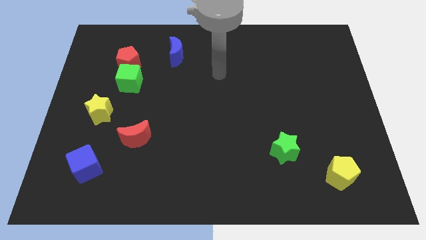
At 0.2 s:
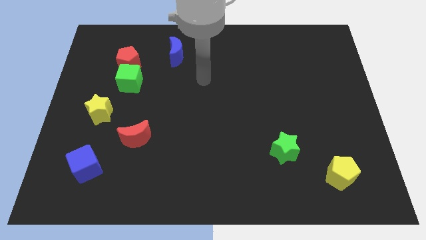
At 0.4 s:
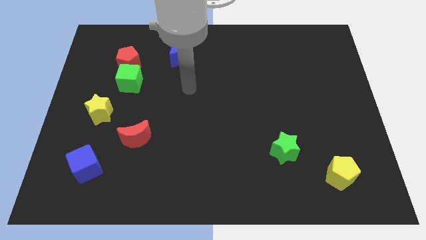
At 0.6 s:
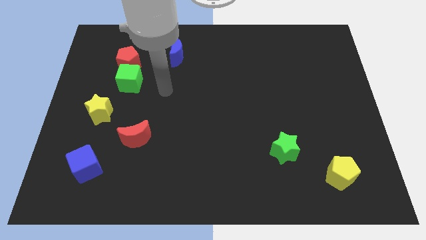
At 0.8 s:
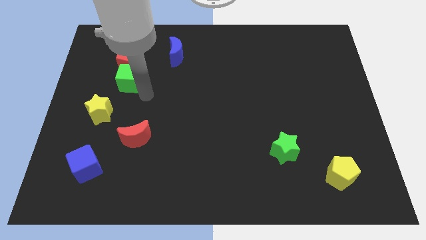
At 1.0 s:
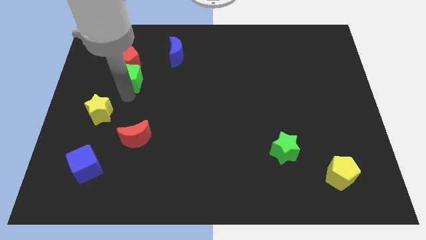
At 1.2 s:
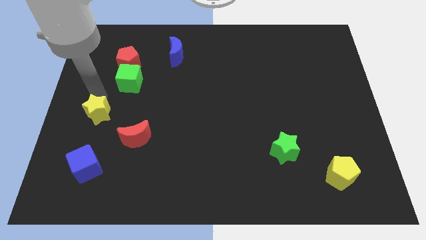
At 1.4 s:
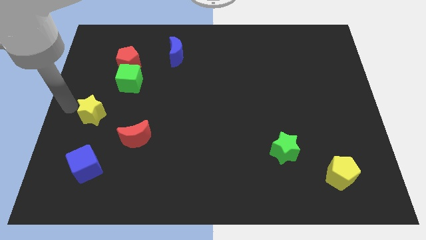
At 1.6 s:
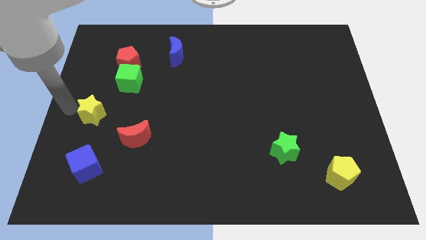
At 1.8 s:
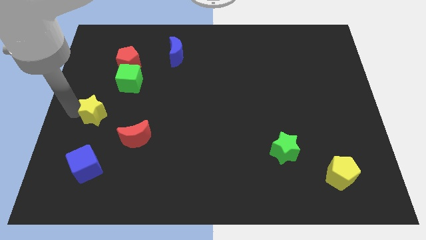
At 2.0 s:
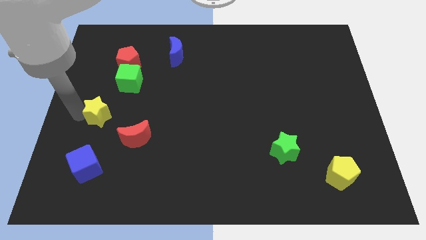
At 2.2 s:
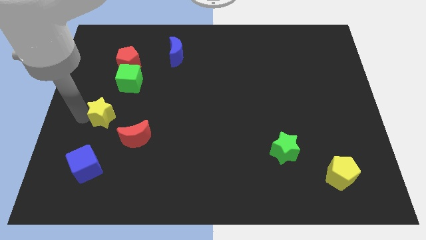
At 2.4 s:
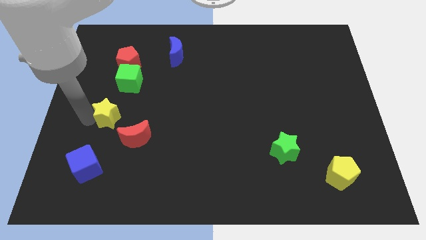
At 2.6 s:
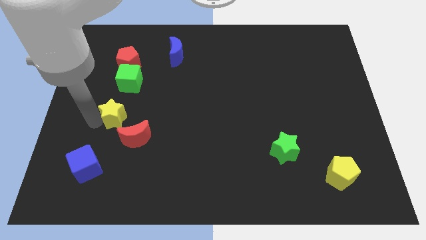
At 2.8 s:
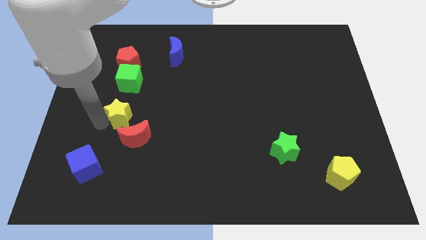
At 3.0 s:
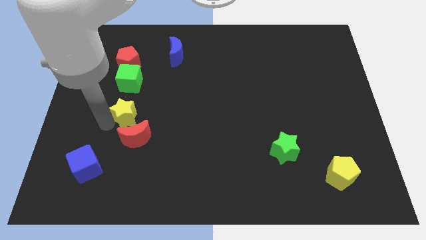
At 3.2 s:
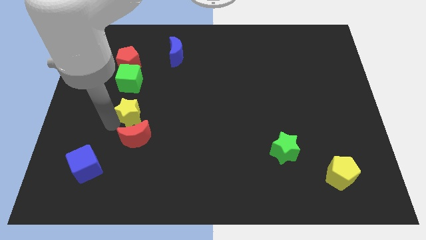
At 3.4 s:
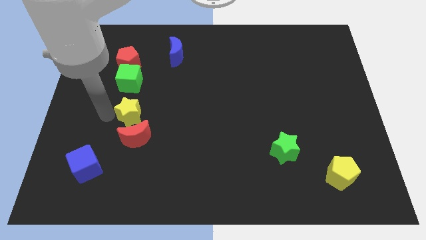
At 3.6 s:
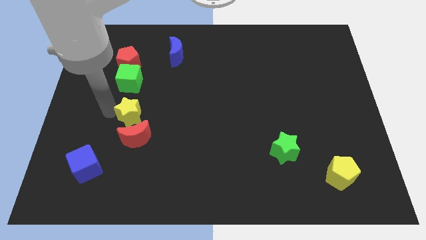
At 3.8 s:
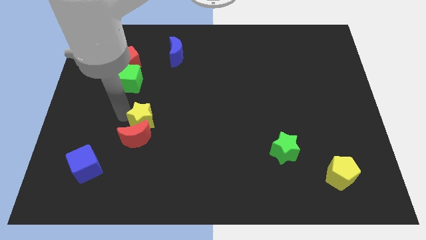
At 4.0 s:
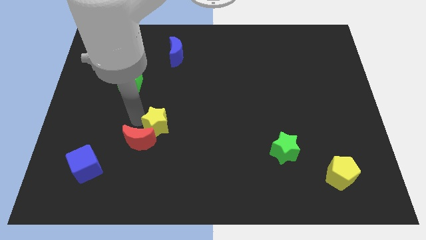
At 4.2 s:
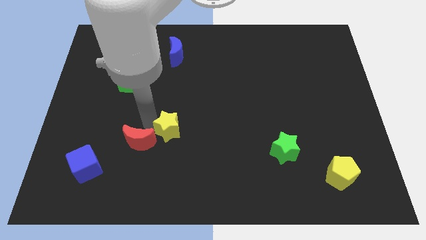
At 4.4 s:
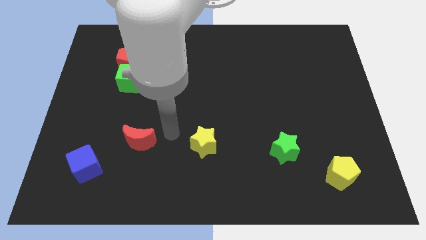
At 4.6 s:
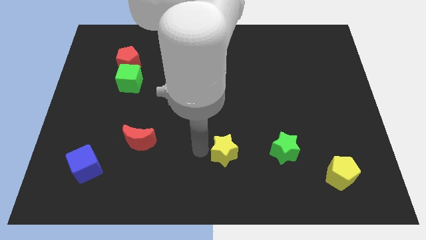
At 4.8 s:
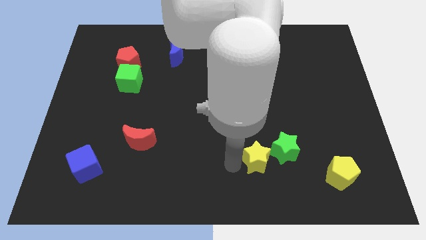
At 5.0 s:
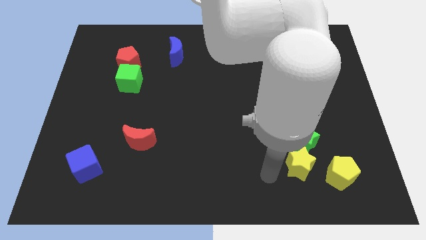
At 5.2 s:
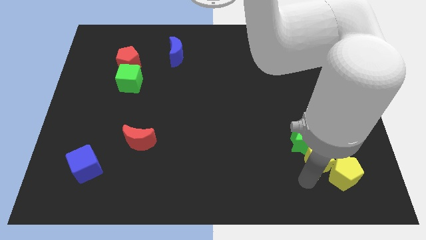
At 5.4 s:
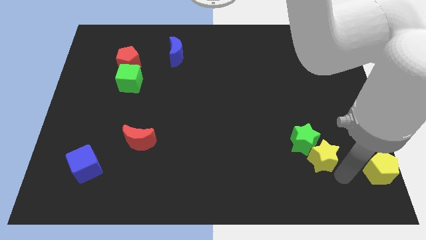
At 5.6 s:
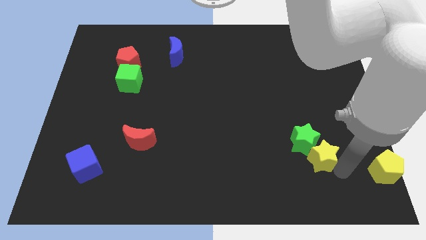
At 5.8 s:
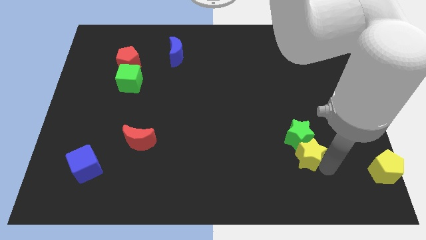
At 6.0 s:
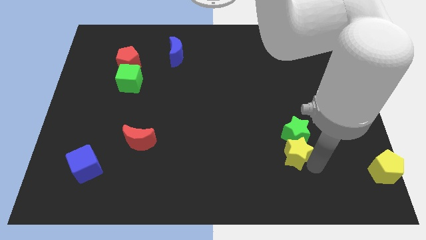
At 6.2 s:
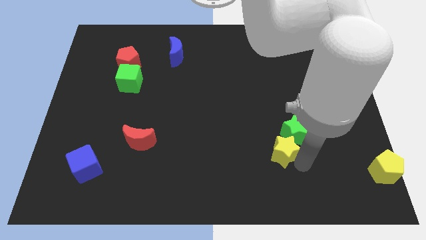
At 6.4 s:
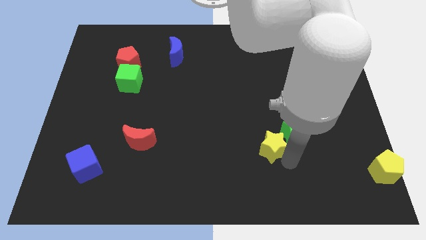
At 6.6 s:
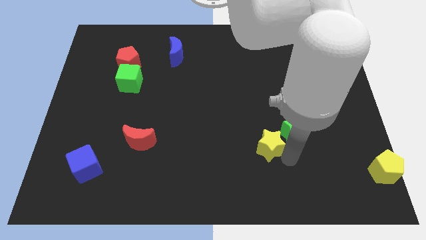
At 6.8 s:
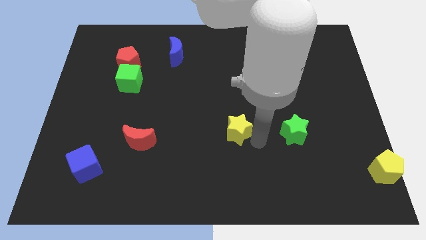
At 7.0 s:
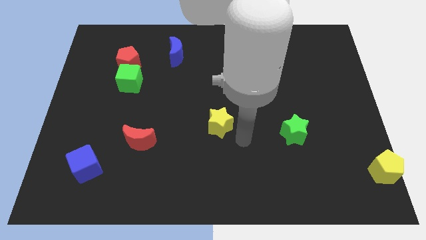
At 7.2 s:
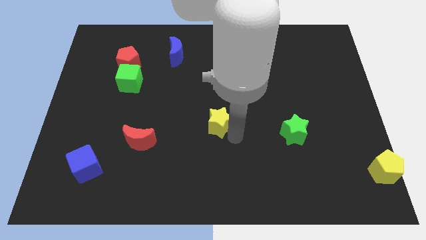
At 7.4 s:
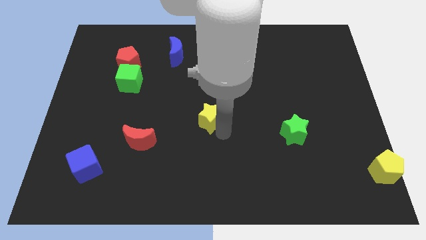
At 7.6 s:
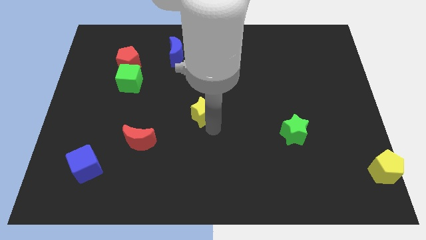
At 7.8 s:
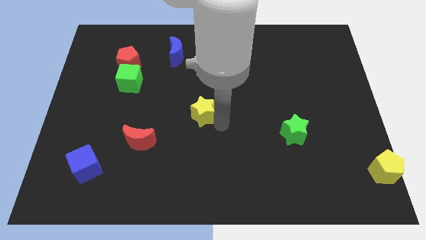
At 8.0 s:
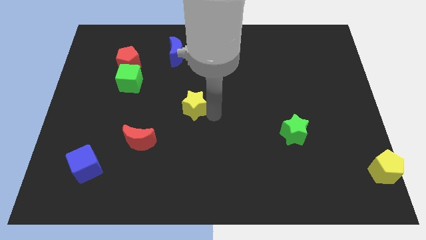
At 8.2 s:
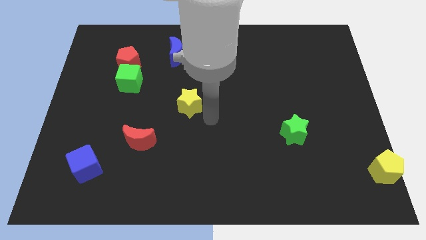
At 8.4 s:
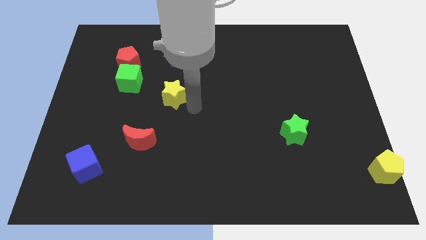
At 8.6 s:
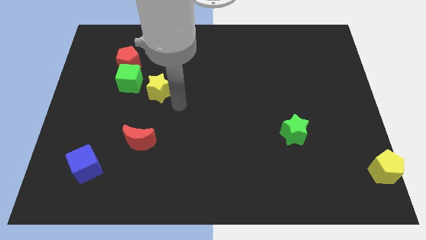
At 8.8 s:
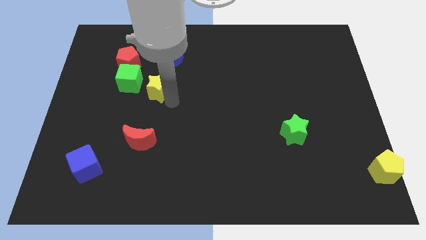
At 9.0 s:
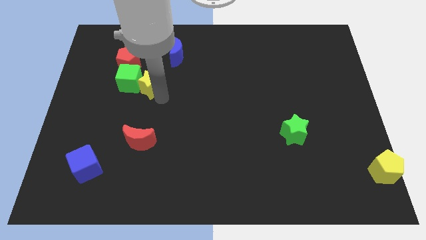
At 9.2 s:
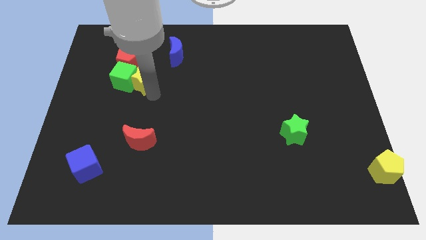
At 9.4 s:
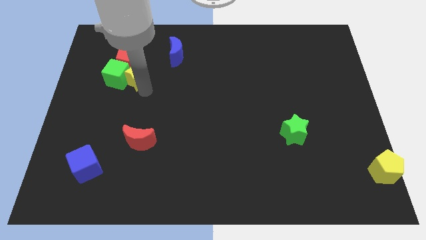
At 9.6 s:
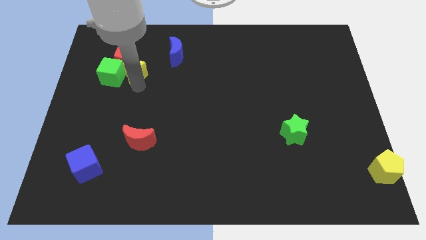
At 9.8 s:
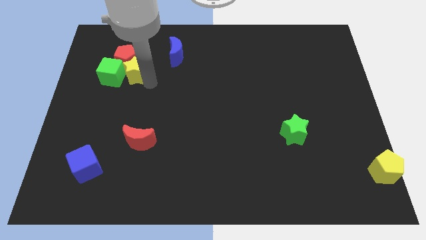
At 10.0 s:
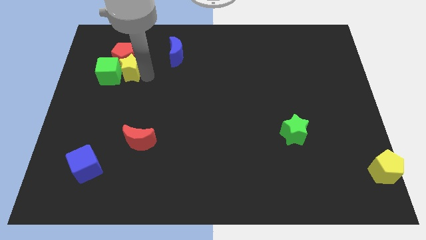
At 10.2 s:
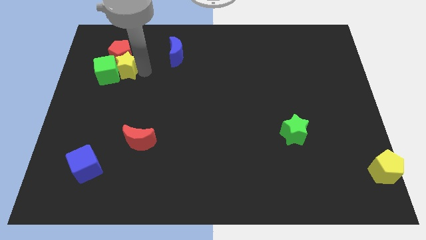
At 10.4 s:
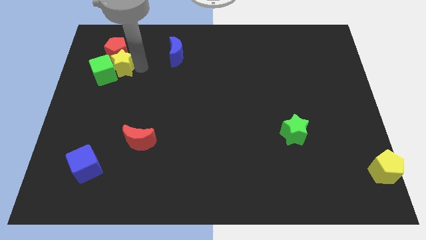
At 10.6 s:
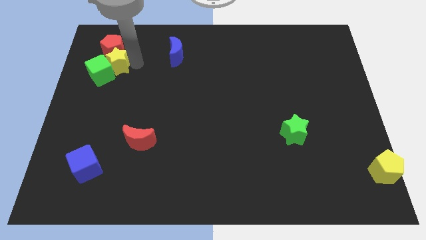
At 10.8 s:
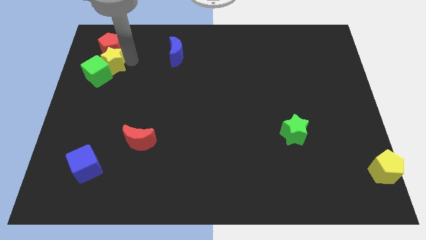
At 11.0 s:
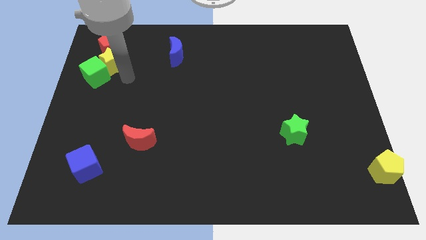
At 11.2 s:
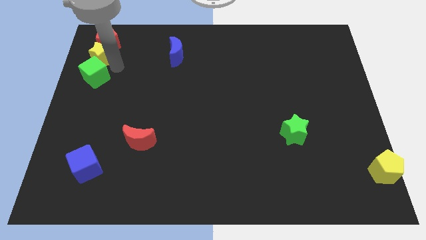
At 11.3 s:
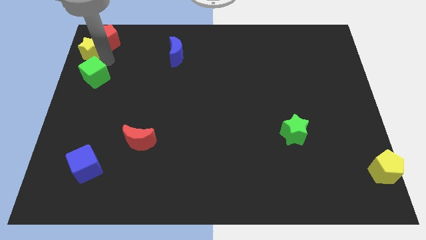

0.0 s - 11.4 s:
slide the yellow star to the upper left corner
